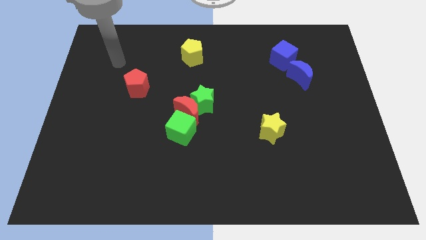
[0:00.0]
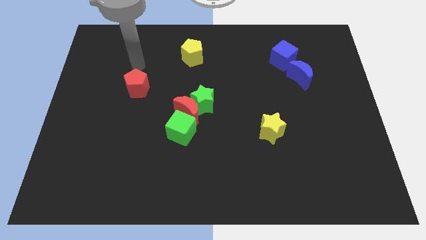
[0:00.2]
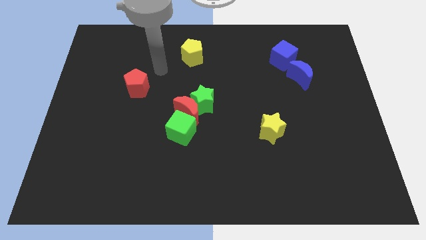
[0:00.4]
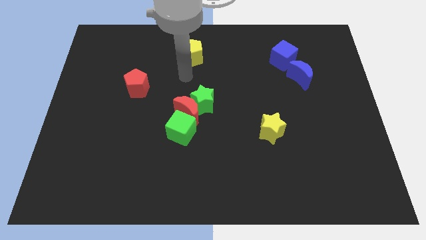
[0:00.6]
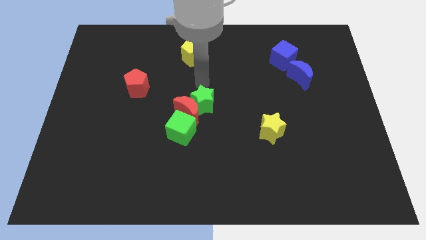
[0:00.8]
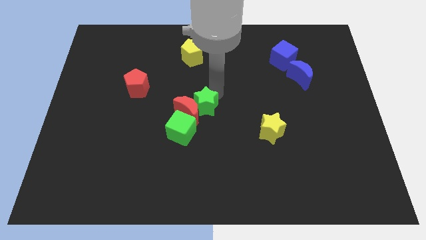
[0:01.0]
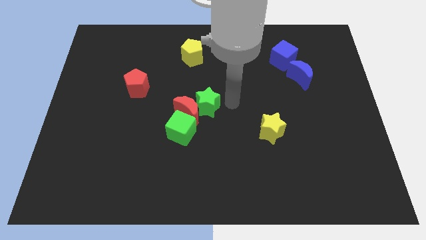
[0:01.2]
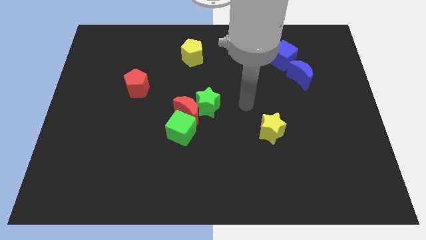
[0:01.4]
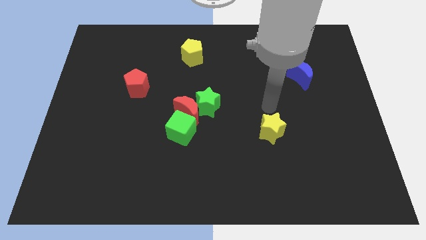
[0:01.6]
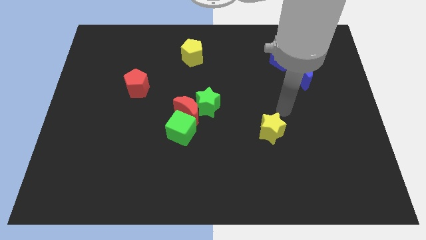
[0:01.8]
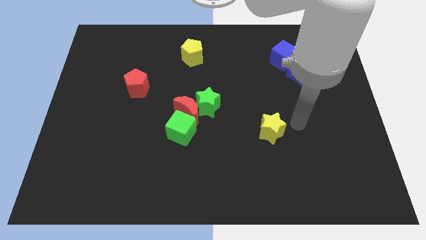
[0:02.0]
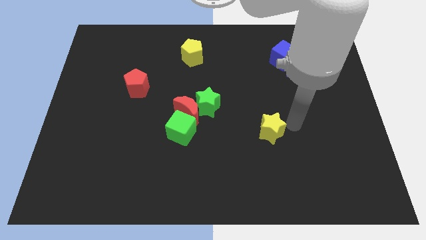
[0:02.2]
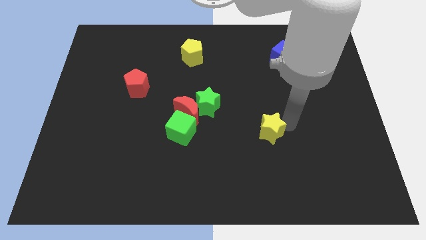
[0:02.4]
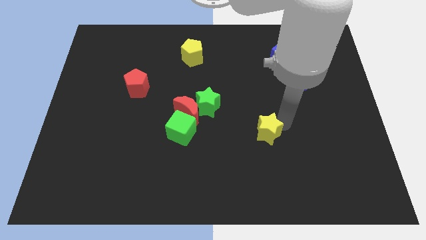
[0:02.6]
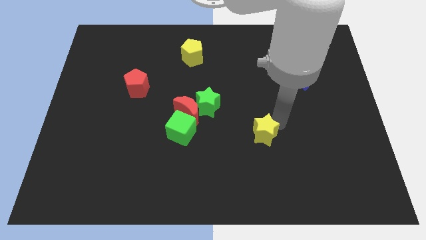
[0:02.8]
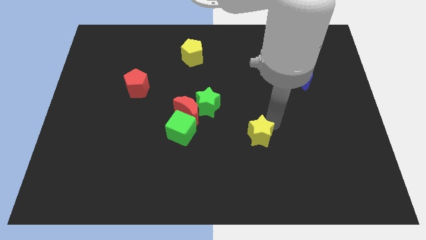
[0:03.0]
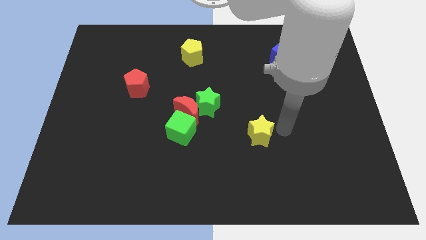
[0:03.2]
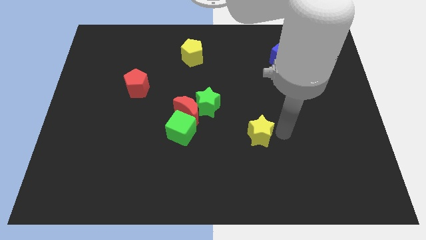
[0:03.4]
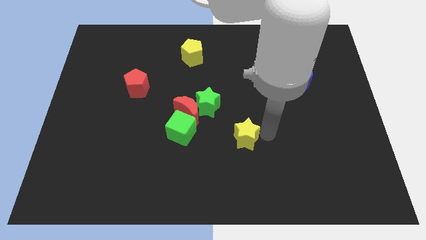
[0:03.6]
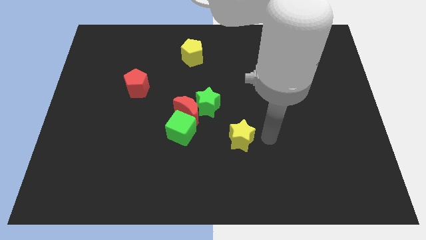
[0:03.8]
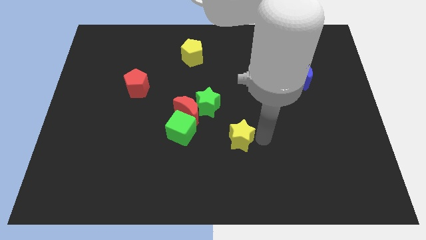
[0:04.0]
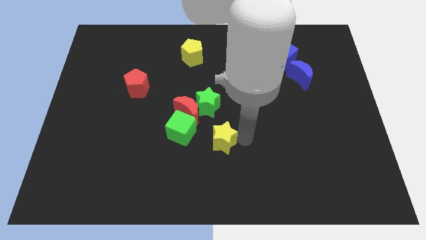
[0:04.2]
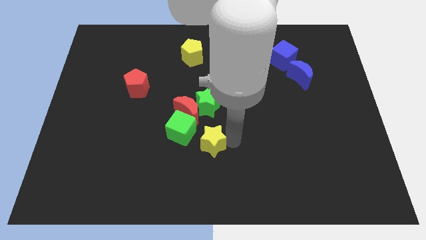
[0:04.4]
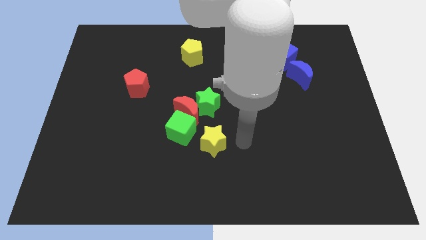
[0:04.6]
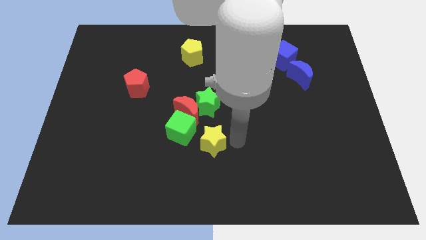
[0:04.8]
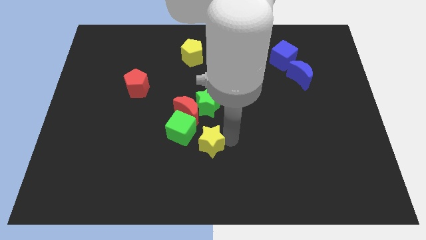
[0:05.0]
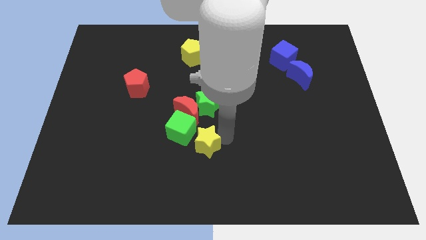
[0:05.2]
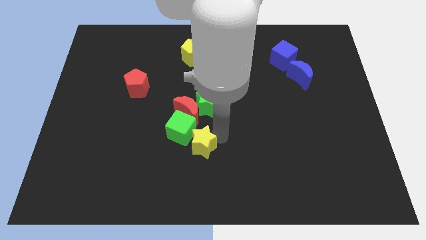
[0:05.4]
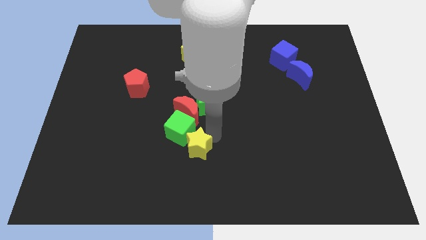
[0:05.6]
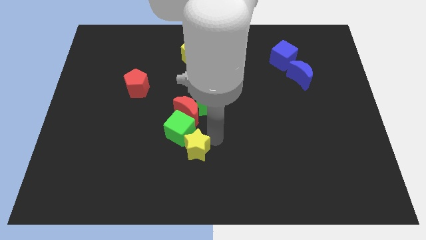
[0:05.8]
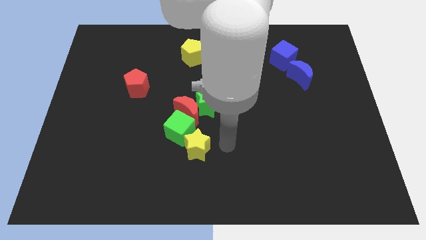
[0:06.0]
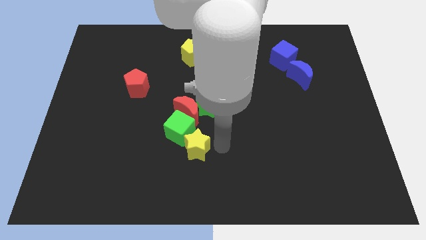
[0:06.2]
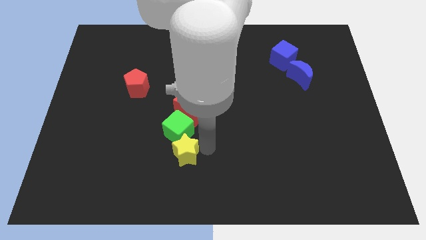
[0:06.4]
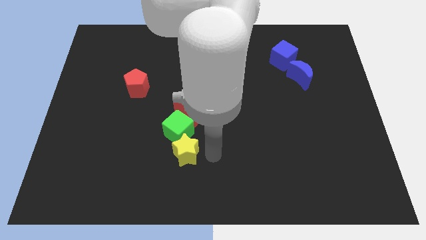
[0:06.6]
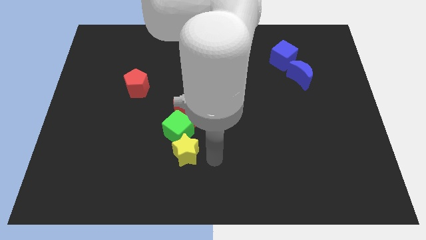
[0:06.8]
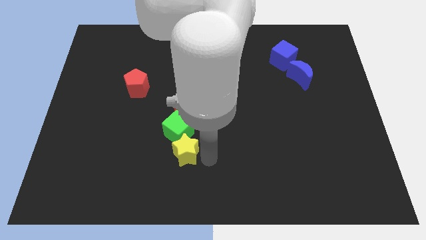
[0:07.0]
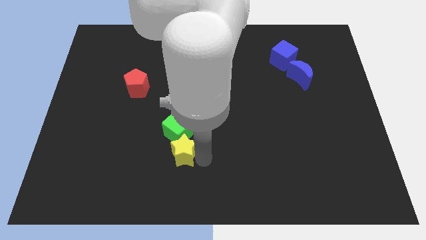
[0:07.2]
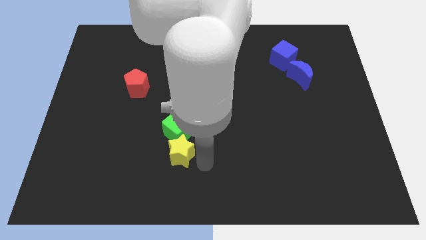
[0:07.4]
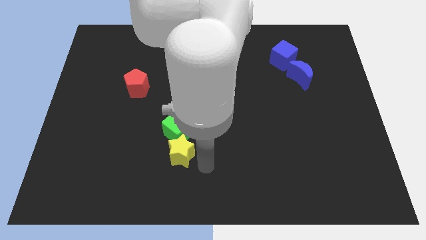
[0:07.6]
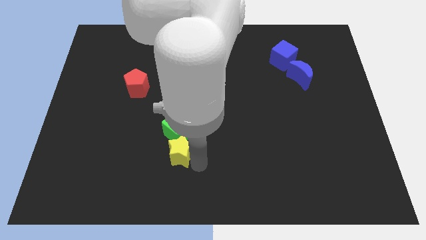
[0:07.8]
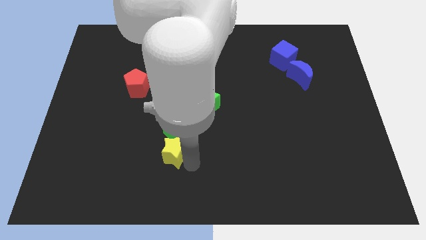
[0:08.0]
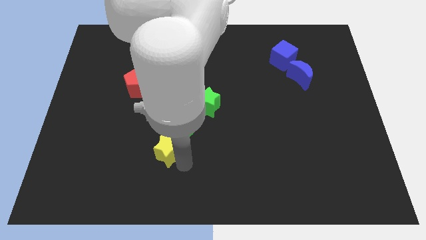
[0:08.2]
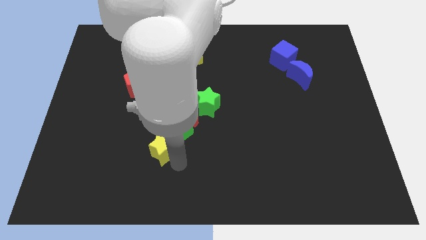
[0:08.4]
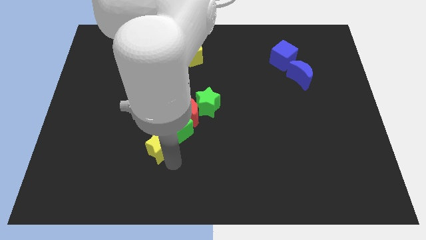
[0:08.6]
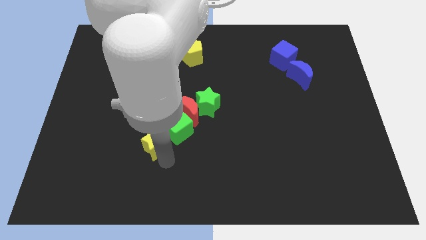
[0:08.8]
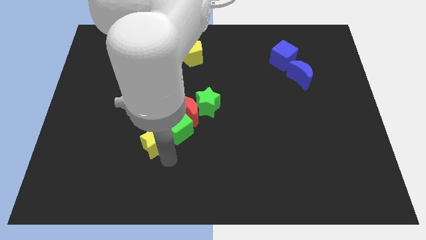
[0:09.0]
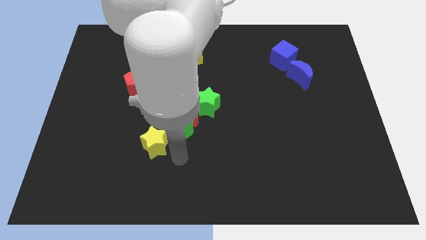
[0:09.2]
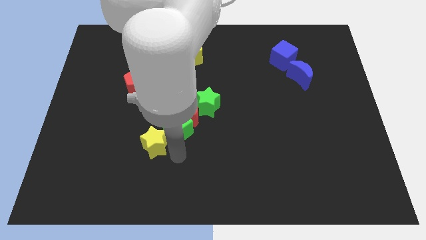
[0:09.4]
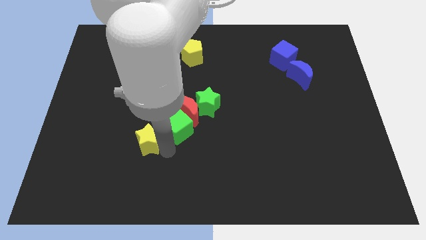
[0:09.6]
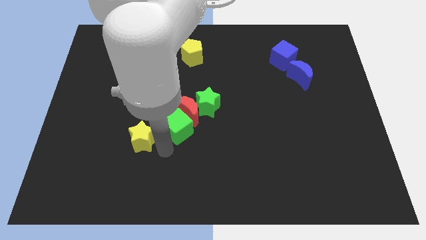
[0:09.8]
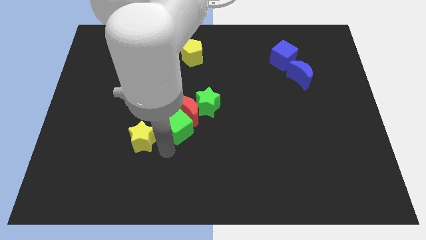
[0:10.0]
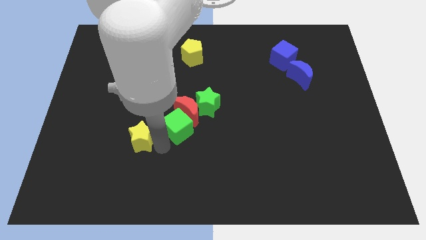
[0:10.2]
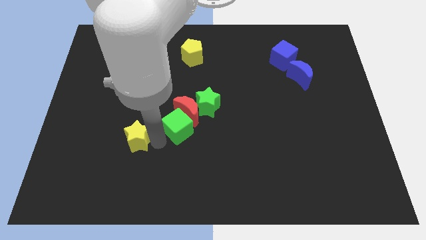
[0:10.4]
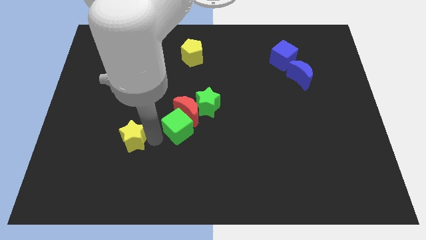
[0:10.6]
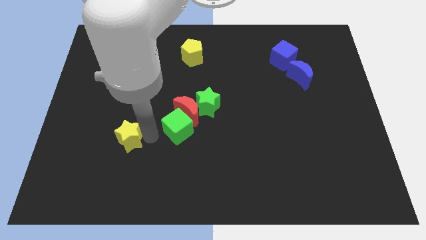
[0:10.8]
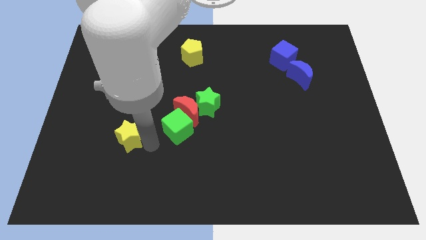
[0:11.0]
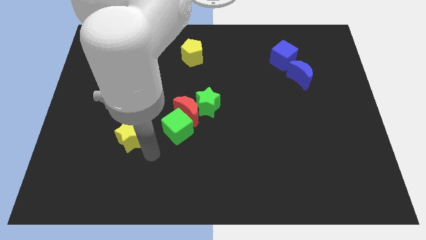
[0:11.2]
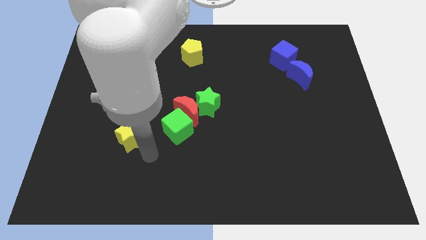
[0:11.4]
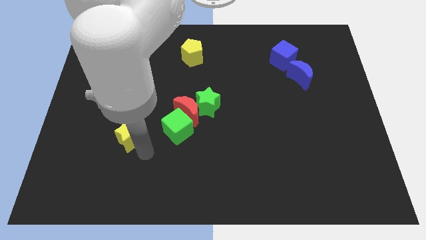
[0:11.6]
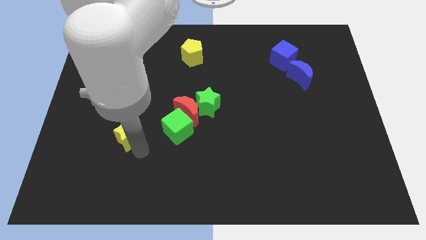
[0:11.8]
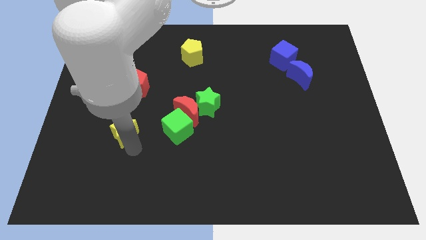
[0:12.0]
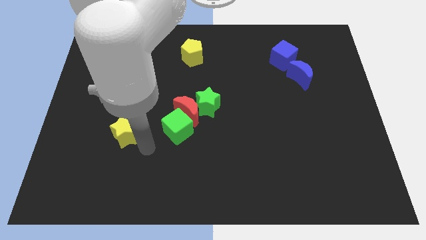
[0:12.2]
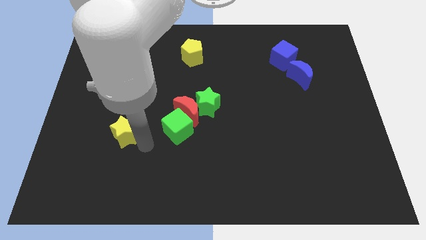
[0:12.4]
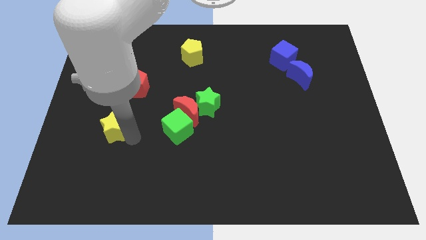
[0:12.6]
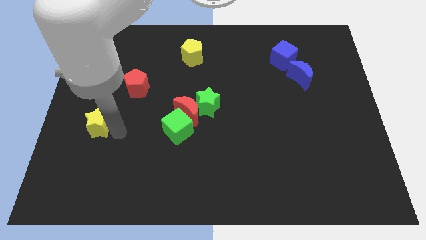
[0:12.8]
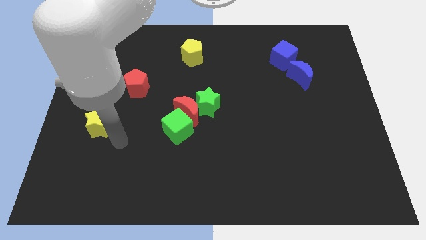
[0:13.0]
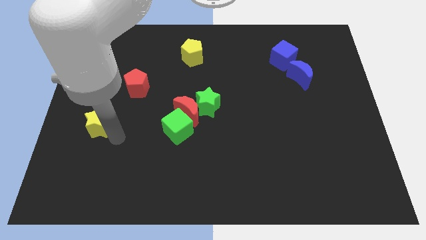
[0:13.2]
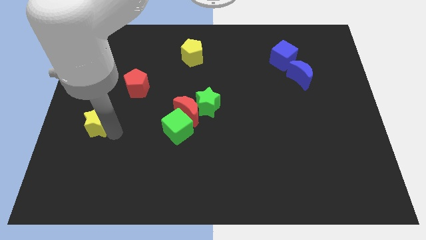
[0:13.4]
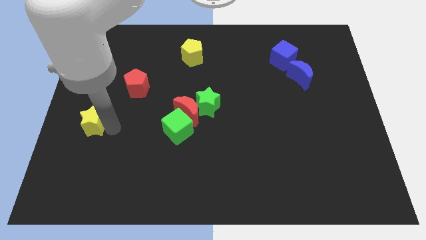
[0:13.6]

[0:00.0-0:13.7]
slide the yellow star to the center left

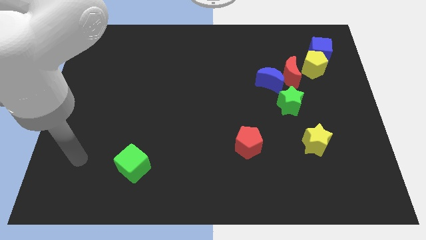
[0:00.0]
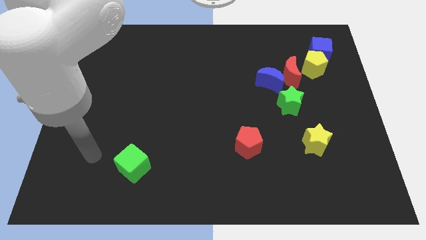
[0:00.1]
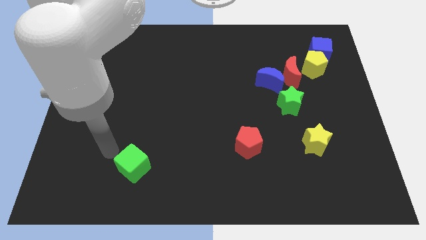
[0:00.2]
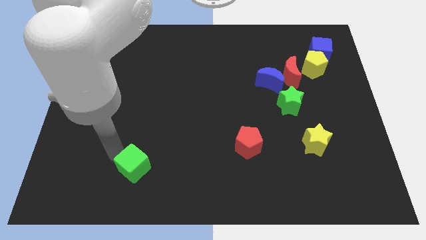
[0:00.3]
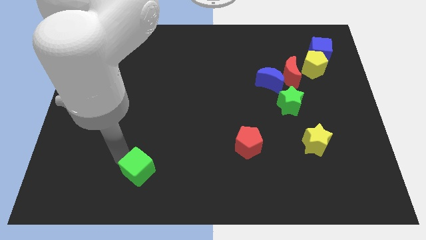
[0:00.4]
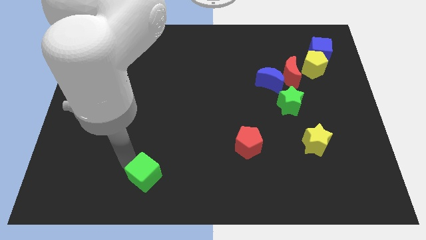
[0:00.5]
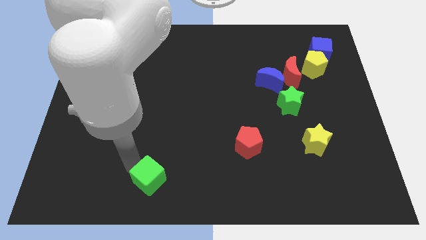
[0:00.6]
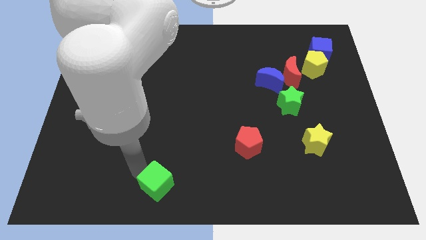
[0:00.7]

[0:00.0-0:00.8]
push the green cube to the bottom
